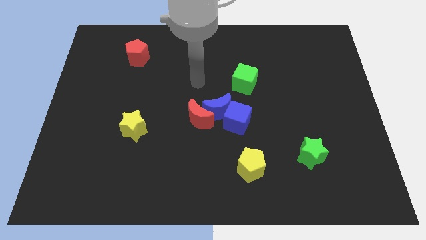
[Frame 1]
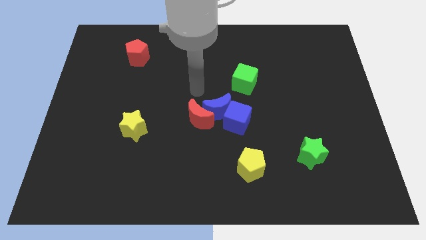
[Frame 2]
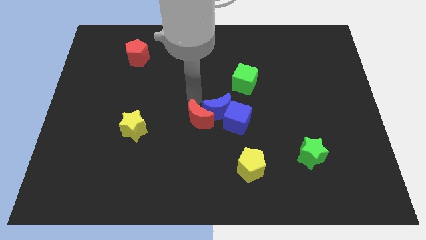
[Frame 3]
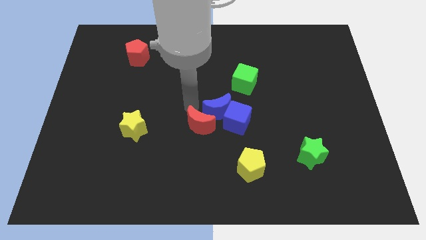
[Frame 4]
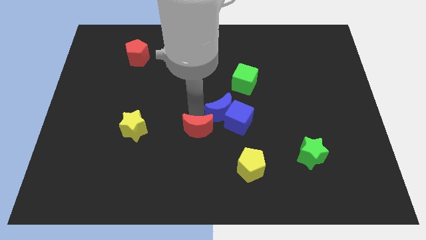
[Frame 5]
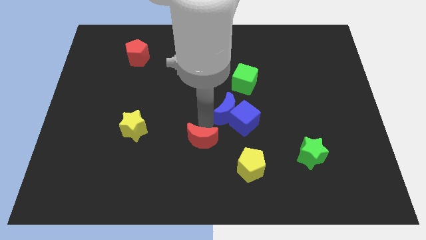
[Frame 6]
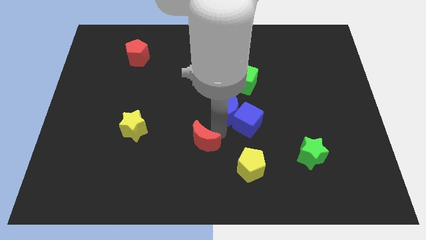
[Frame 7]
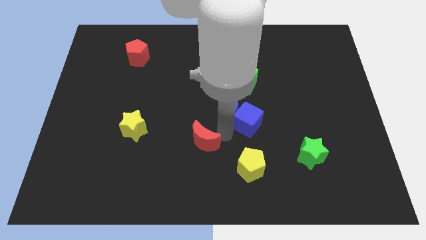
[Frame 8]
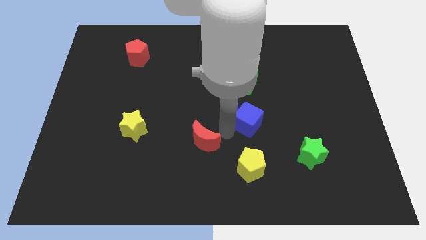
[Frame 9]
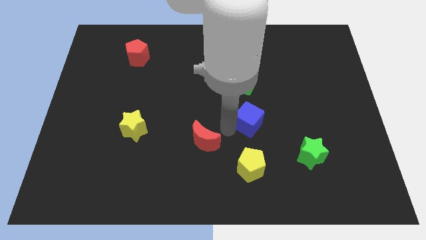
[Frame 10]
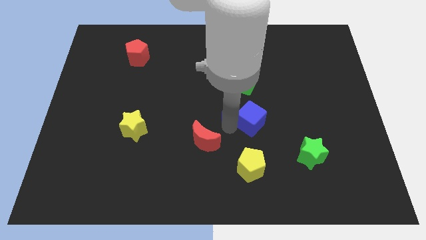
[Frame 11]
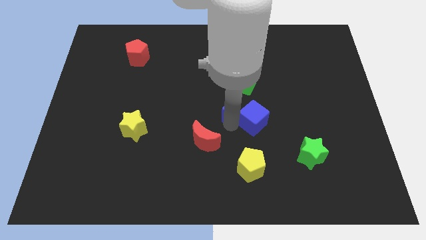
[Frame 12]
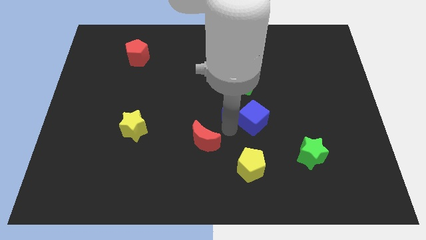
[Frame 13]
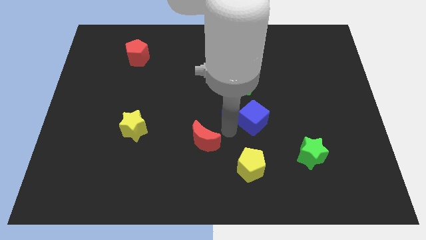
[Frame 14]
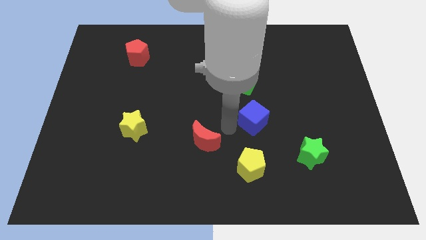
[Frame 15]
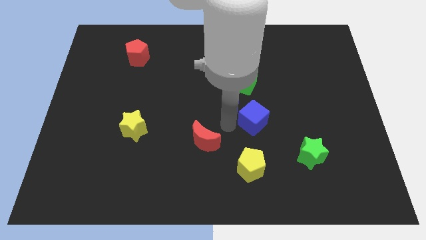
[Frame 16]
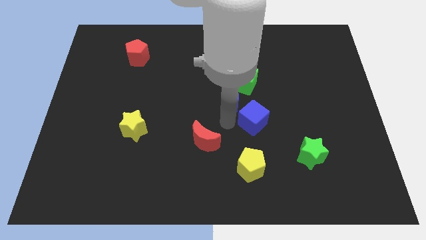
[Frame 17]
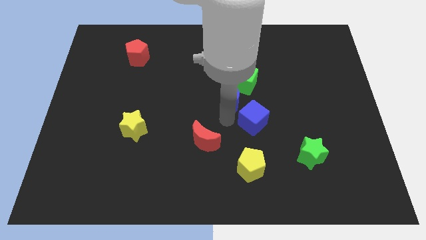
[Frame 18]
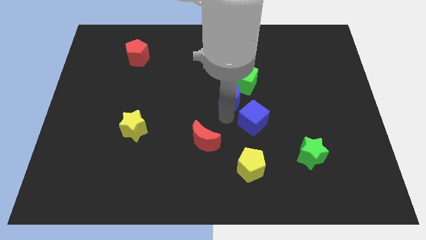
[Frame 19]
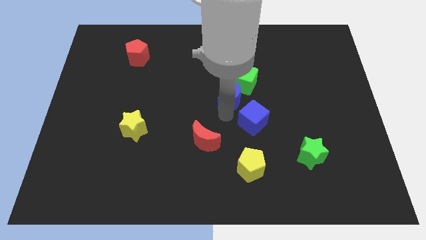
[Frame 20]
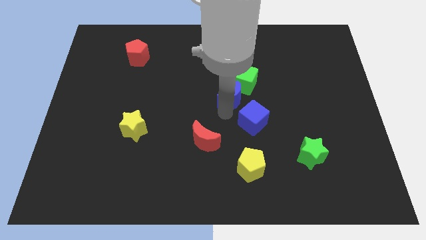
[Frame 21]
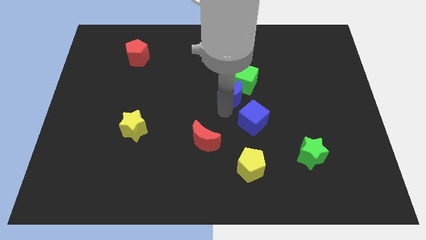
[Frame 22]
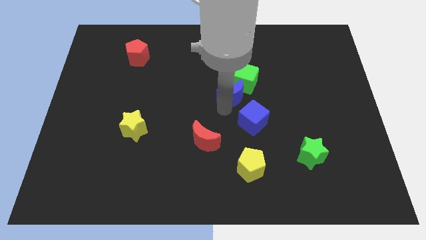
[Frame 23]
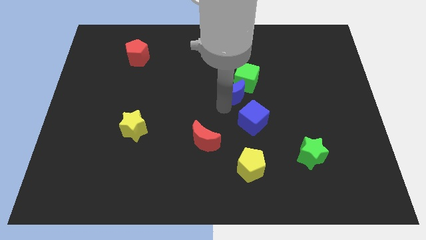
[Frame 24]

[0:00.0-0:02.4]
pull the blue moon apart from the blue cube and red moon

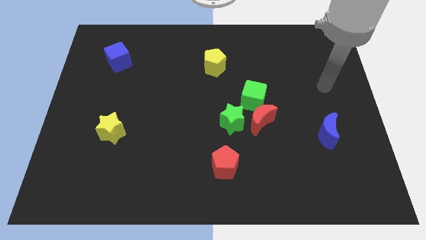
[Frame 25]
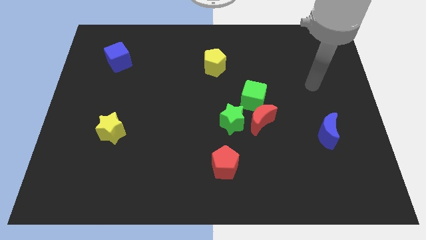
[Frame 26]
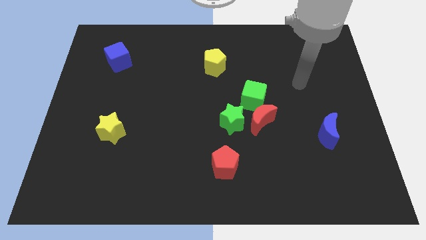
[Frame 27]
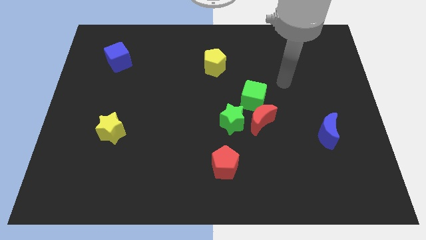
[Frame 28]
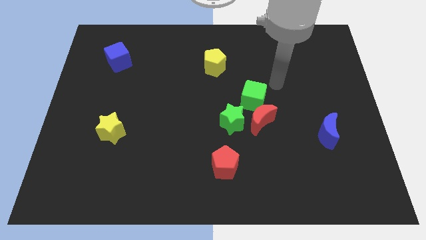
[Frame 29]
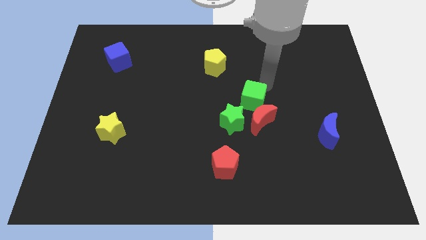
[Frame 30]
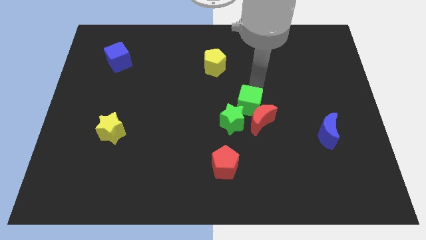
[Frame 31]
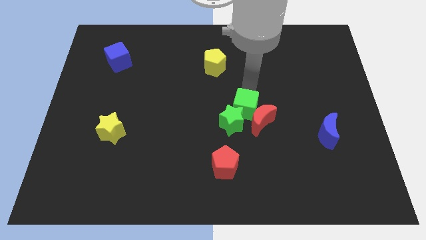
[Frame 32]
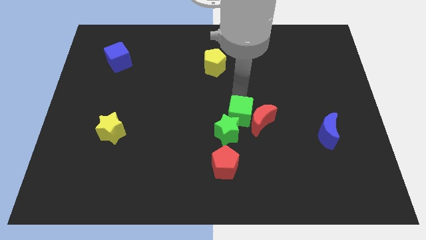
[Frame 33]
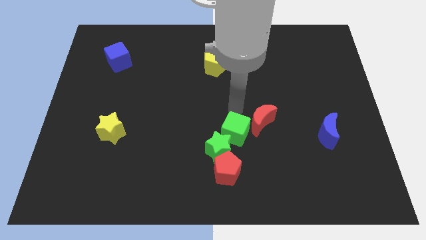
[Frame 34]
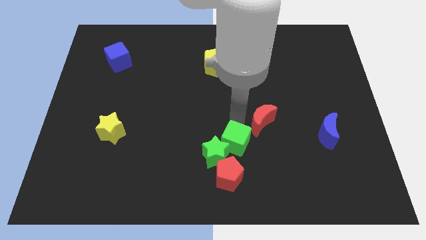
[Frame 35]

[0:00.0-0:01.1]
pull the red moon apart from the green star and green cube

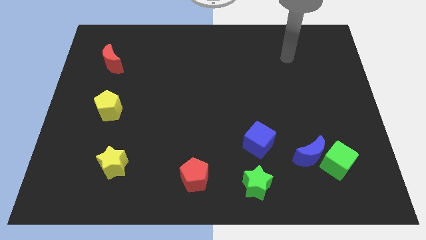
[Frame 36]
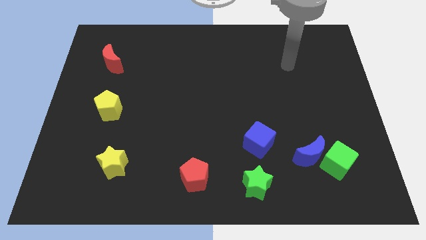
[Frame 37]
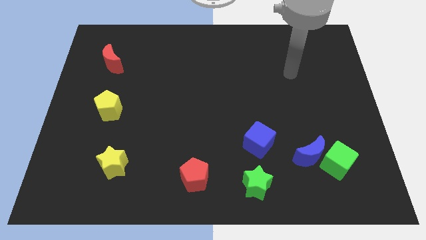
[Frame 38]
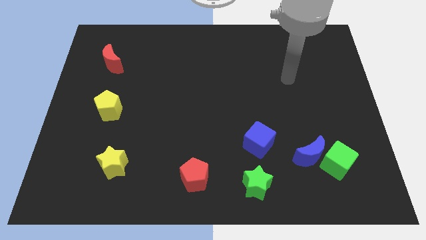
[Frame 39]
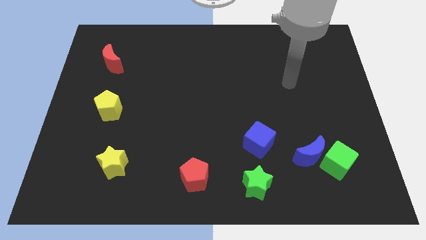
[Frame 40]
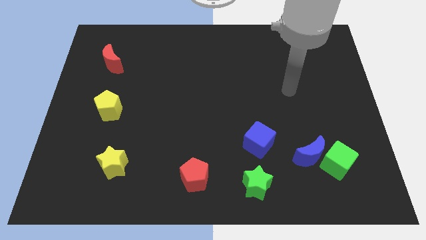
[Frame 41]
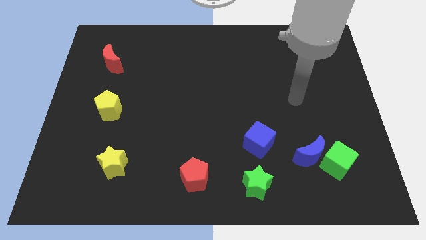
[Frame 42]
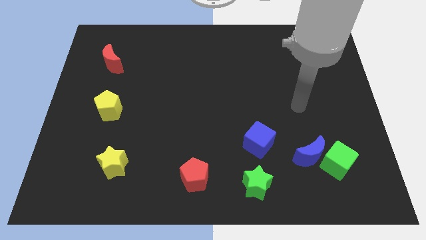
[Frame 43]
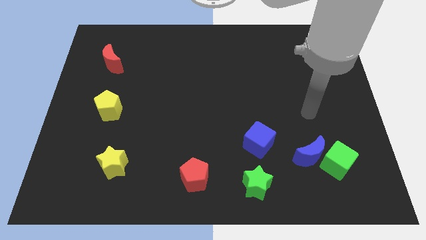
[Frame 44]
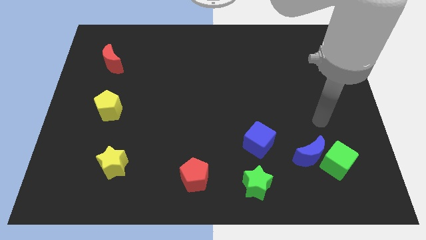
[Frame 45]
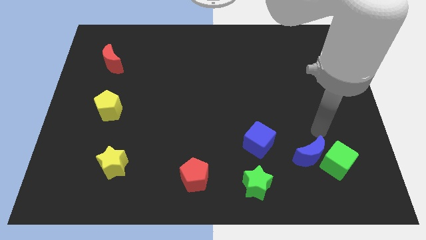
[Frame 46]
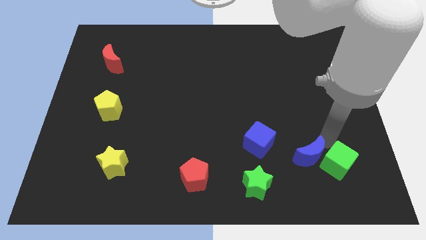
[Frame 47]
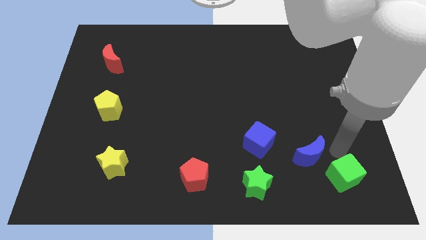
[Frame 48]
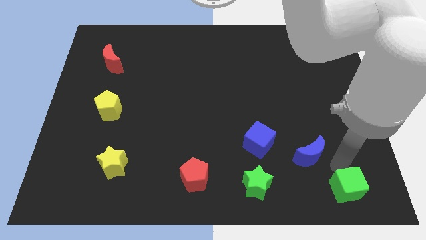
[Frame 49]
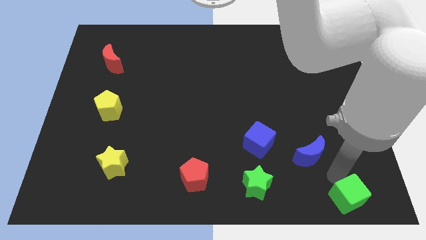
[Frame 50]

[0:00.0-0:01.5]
move the blue moon away from the green cube

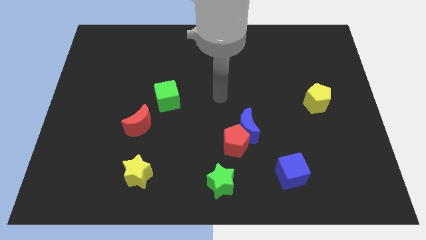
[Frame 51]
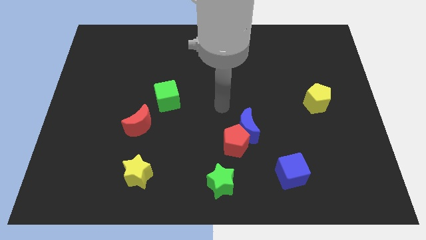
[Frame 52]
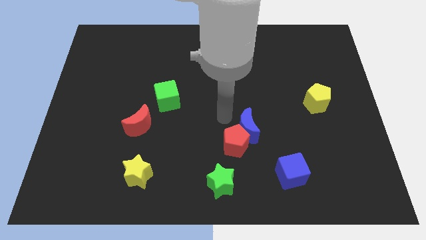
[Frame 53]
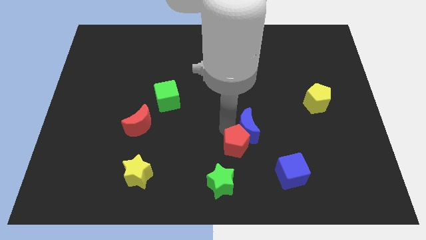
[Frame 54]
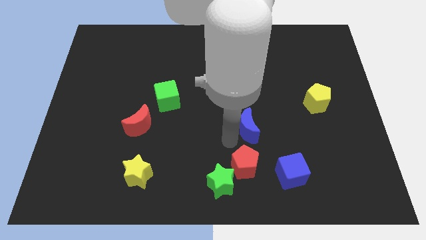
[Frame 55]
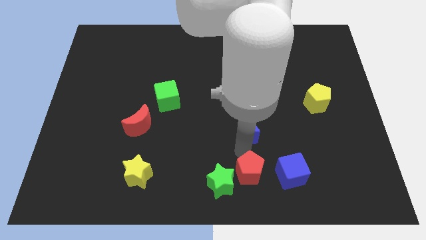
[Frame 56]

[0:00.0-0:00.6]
pull the blue moon apart from the red pentagon

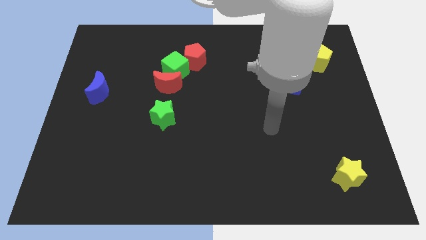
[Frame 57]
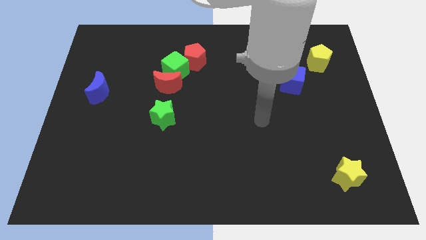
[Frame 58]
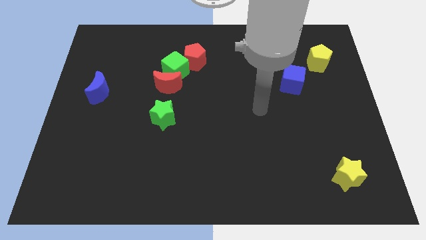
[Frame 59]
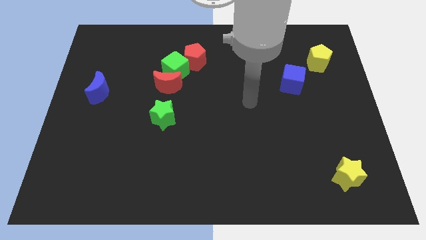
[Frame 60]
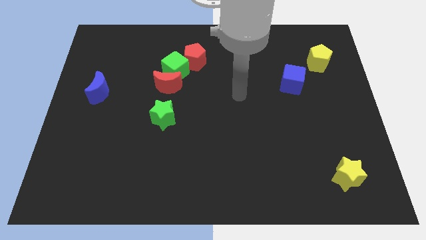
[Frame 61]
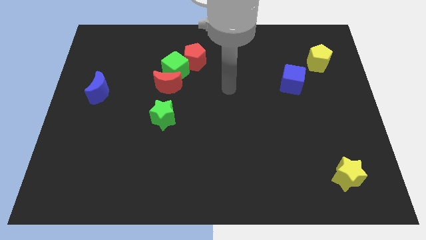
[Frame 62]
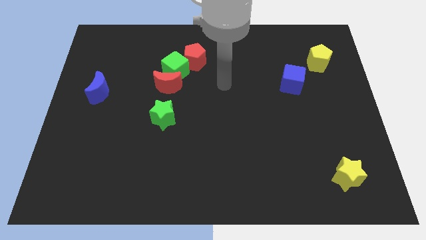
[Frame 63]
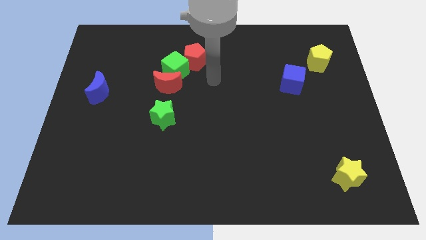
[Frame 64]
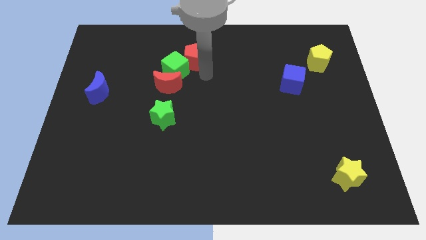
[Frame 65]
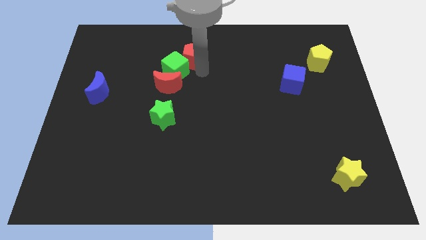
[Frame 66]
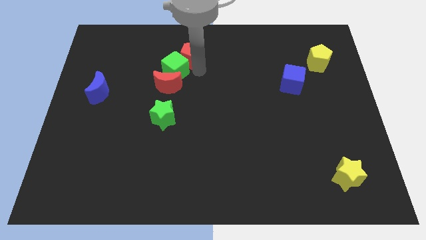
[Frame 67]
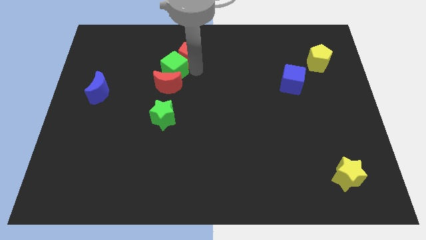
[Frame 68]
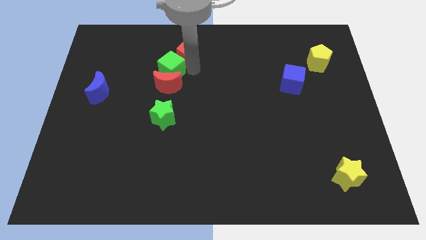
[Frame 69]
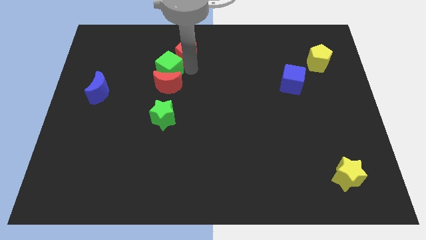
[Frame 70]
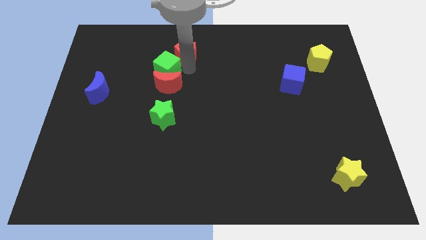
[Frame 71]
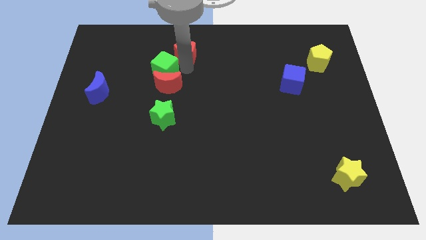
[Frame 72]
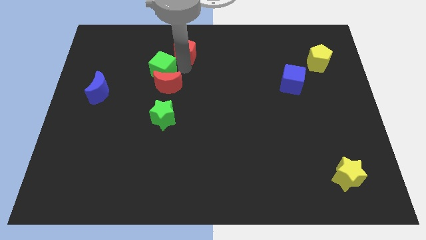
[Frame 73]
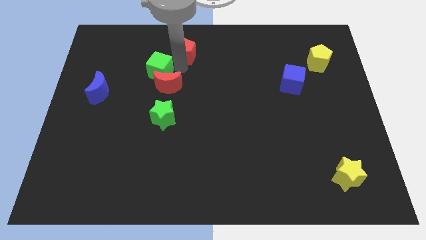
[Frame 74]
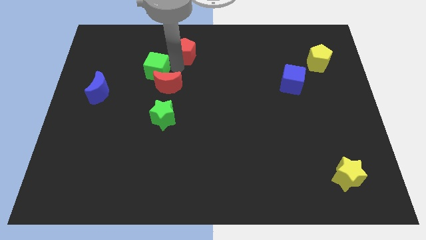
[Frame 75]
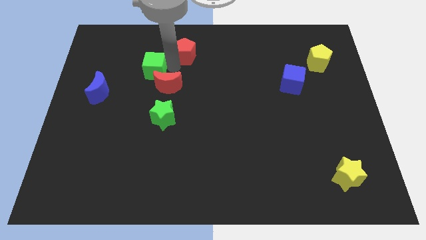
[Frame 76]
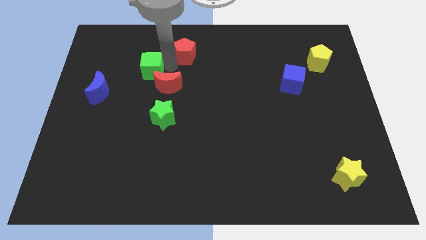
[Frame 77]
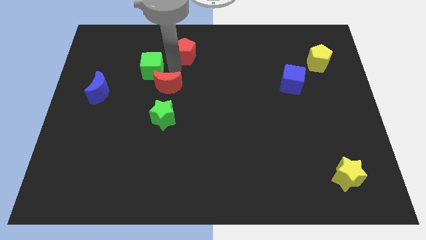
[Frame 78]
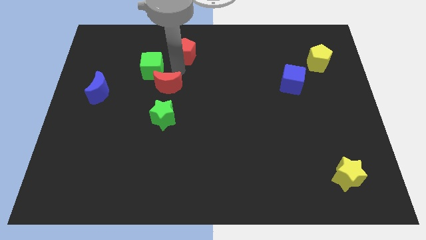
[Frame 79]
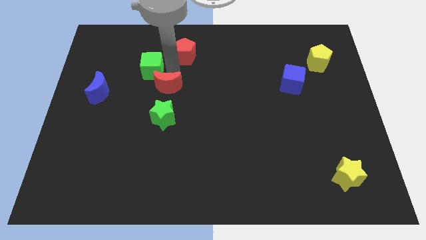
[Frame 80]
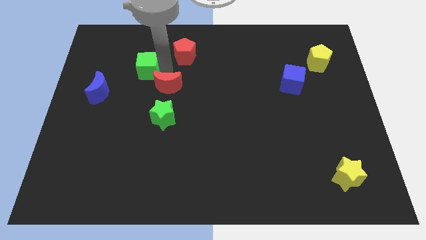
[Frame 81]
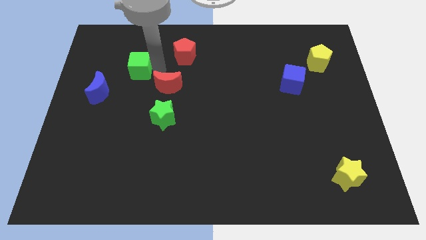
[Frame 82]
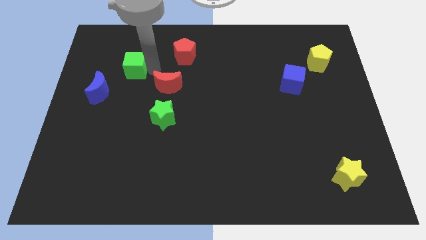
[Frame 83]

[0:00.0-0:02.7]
pull the green cube apart from the red moon and red pentagon

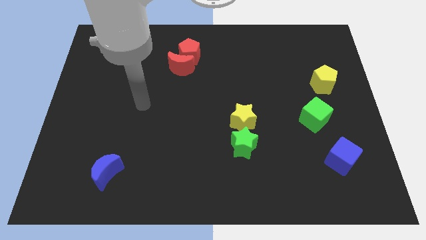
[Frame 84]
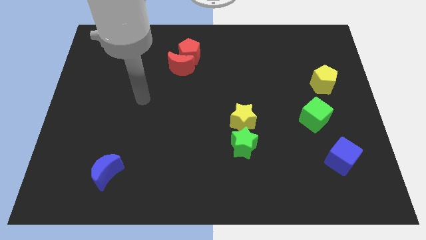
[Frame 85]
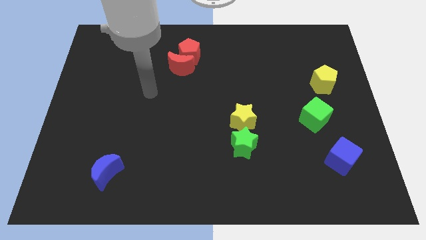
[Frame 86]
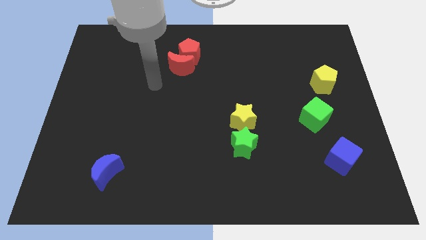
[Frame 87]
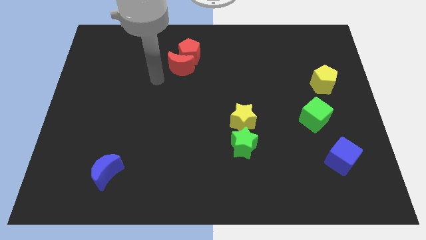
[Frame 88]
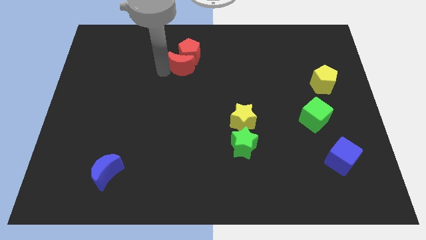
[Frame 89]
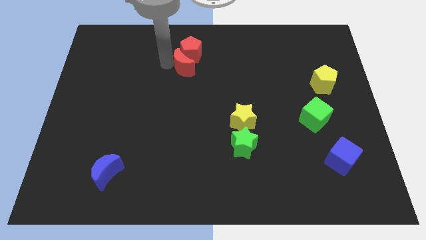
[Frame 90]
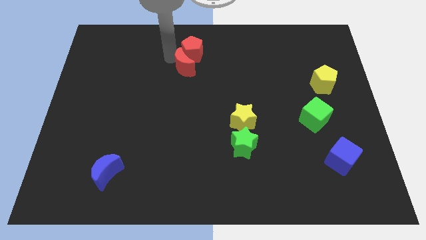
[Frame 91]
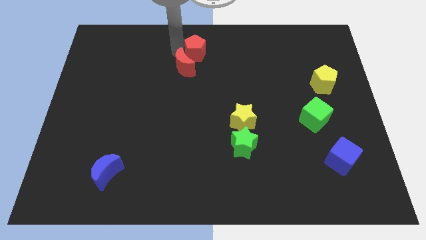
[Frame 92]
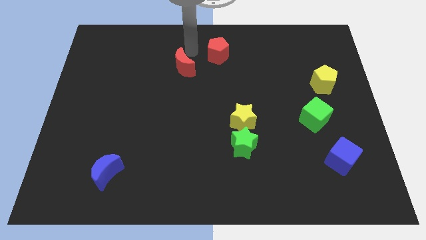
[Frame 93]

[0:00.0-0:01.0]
move the red moon away from the red pentagon
